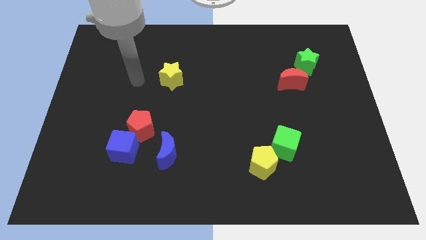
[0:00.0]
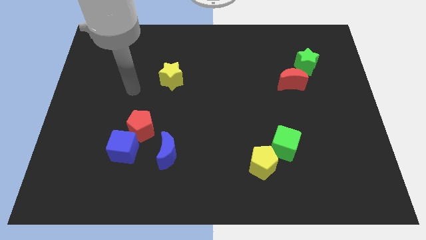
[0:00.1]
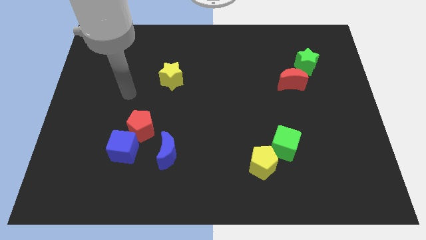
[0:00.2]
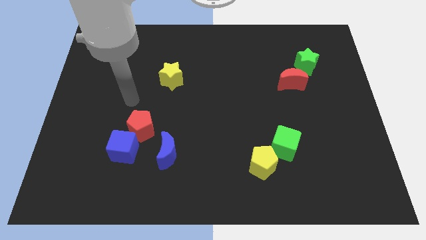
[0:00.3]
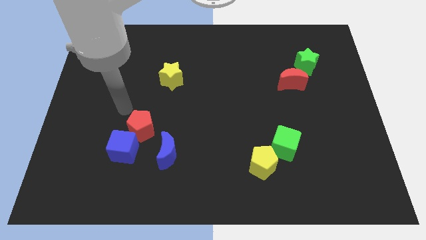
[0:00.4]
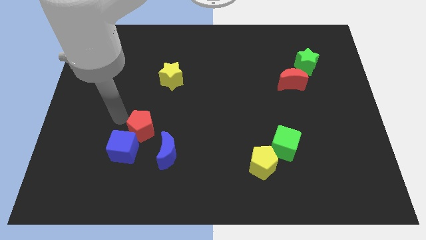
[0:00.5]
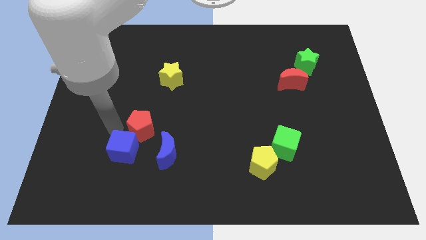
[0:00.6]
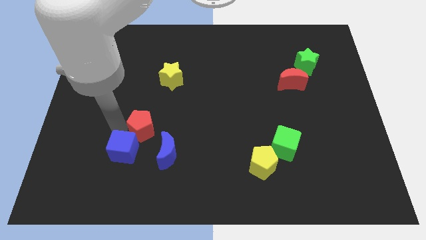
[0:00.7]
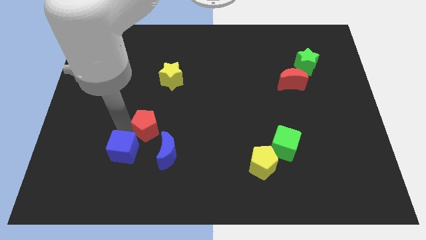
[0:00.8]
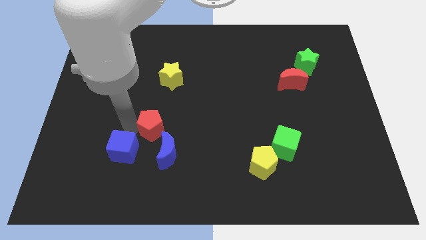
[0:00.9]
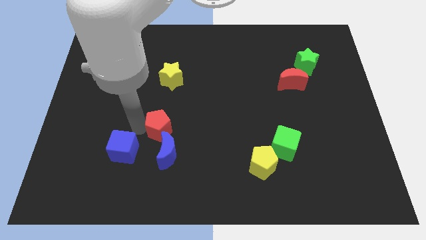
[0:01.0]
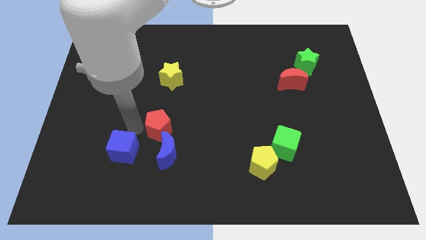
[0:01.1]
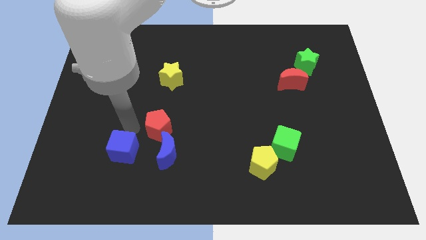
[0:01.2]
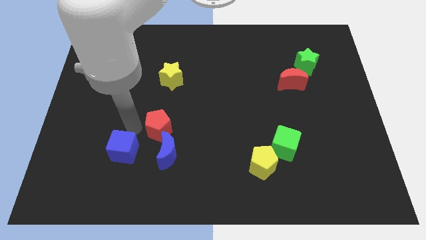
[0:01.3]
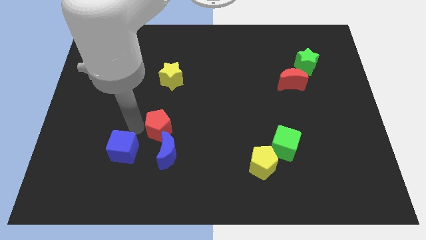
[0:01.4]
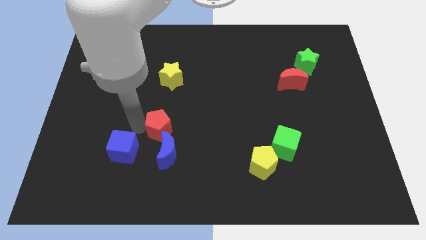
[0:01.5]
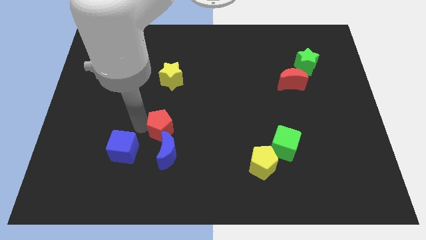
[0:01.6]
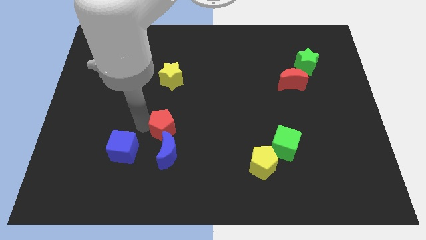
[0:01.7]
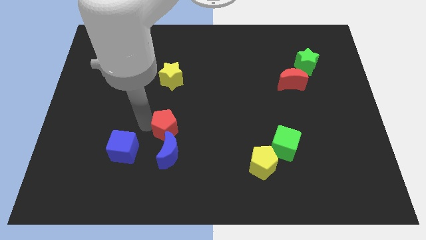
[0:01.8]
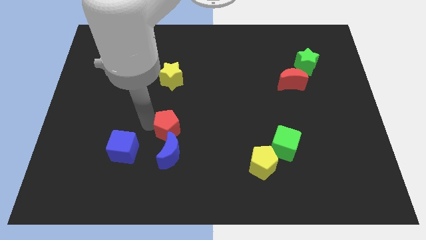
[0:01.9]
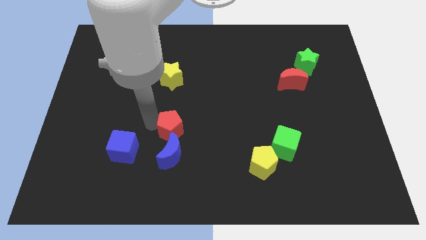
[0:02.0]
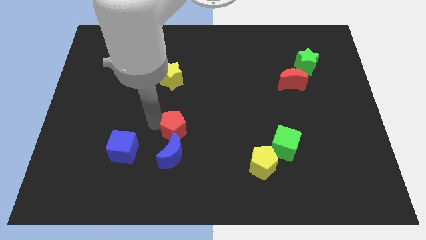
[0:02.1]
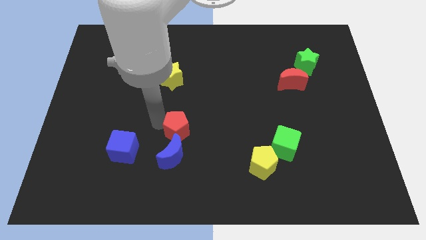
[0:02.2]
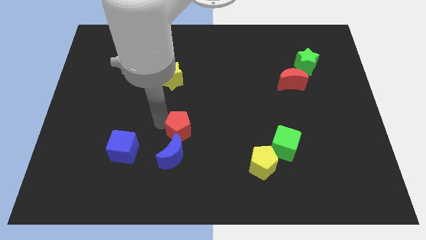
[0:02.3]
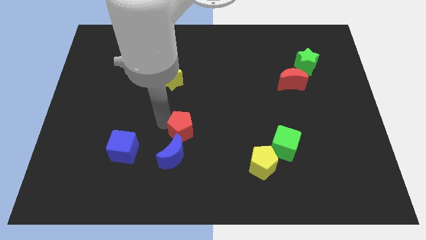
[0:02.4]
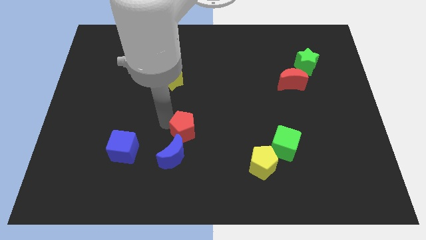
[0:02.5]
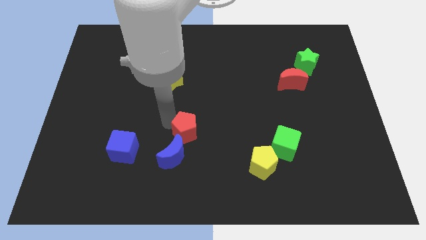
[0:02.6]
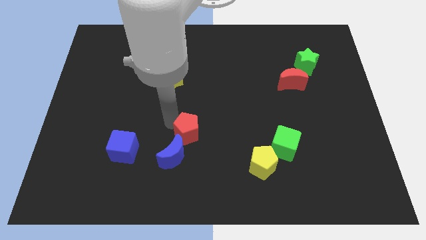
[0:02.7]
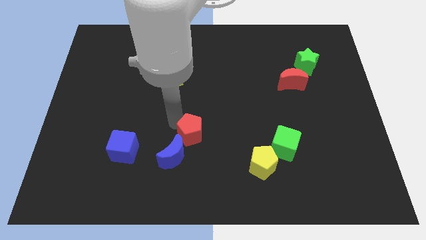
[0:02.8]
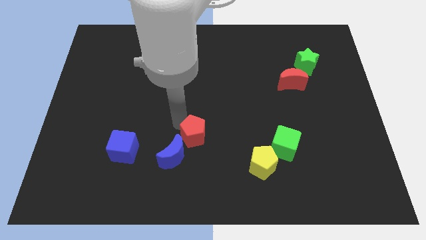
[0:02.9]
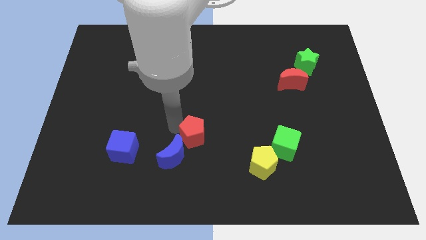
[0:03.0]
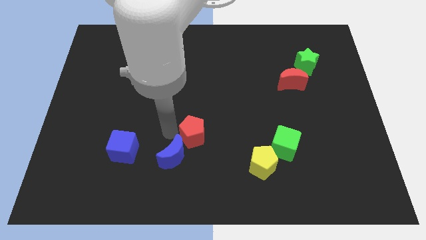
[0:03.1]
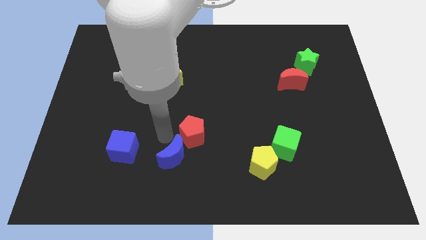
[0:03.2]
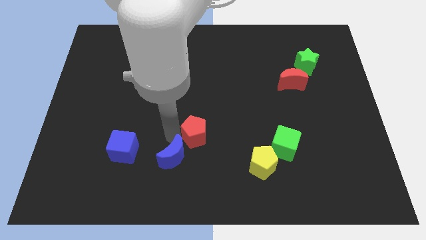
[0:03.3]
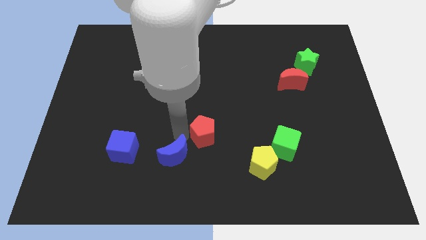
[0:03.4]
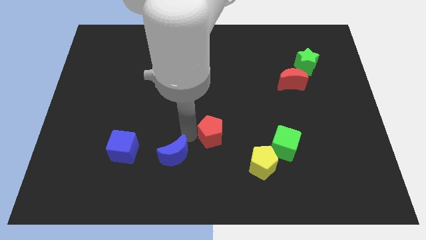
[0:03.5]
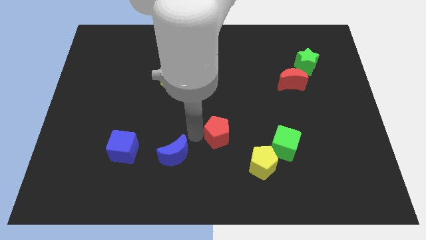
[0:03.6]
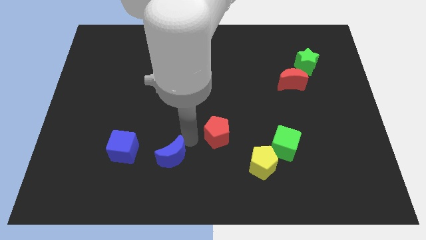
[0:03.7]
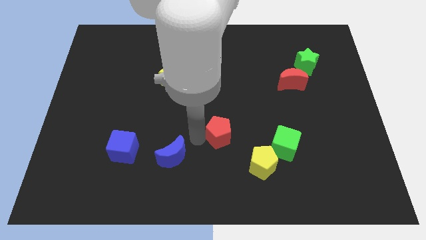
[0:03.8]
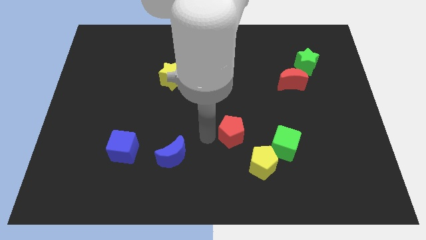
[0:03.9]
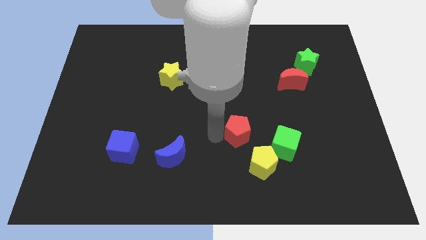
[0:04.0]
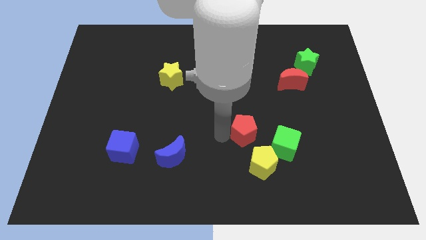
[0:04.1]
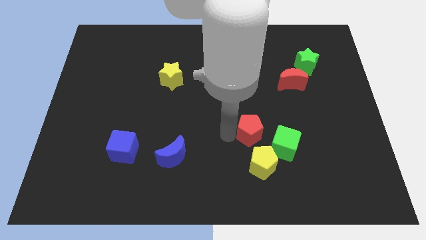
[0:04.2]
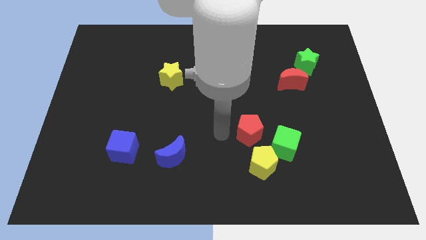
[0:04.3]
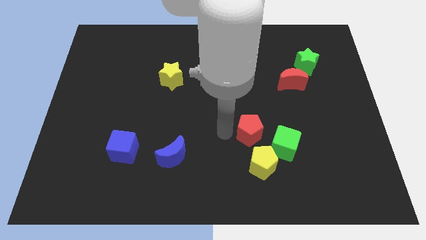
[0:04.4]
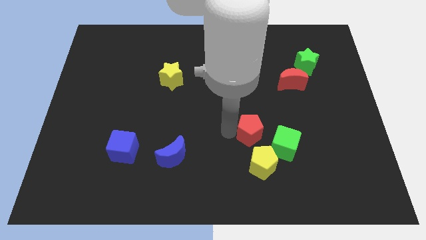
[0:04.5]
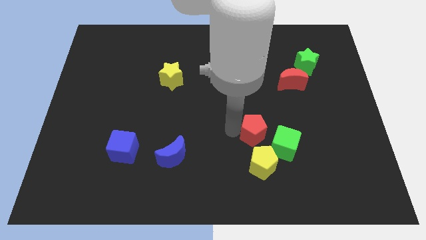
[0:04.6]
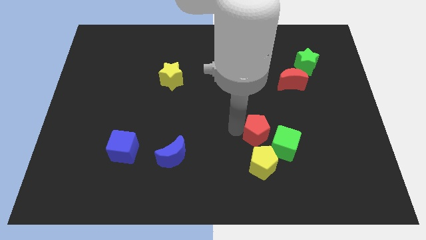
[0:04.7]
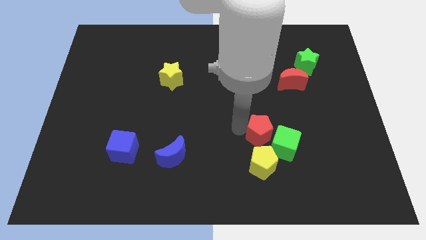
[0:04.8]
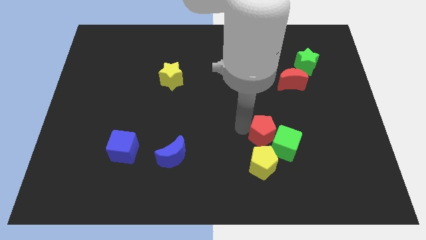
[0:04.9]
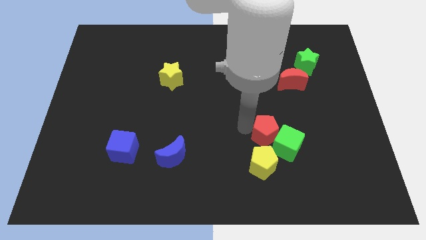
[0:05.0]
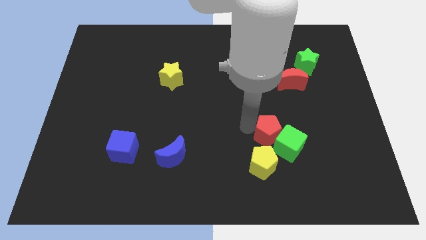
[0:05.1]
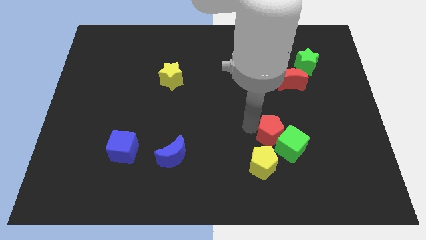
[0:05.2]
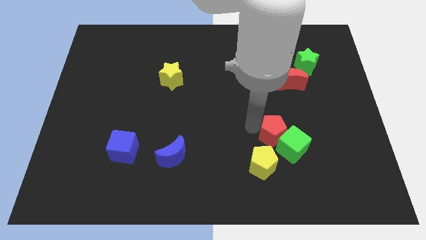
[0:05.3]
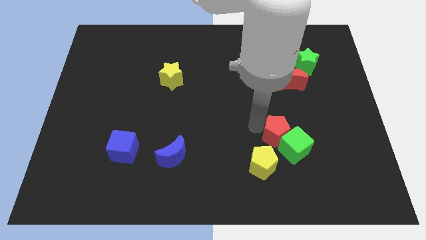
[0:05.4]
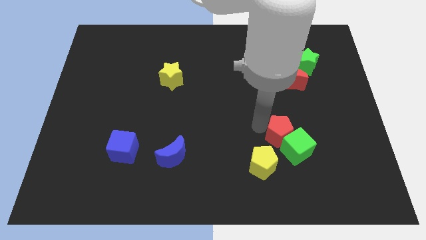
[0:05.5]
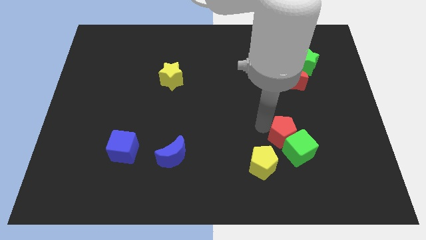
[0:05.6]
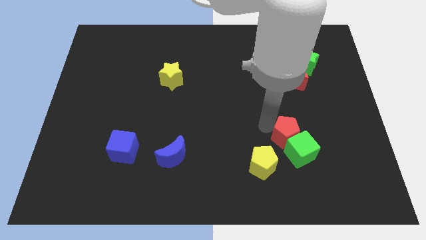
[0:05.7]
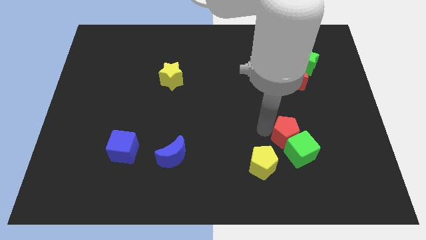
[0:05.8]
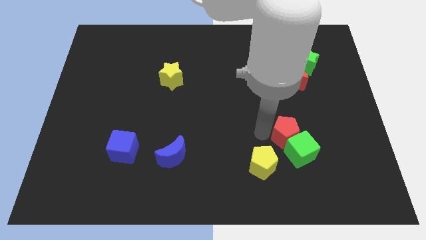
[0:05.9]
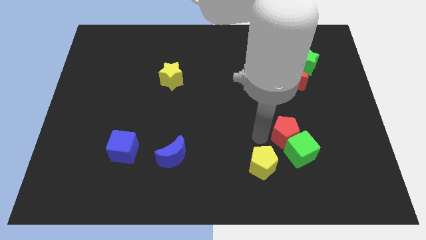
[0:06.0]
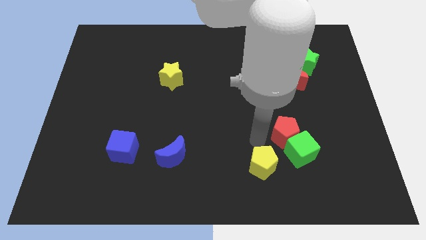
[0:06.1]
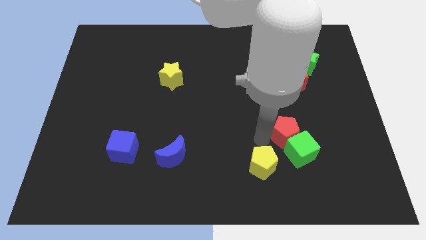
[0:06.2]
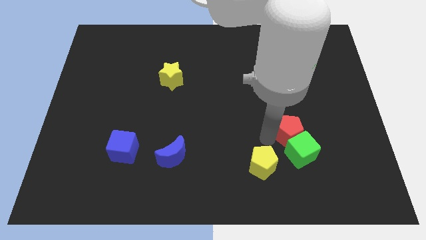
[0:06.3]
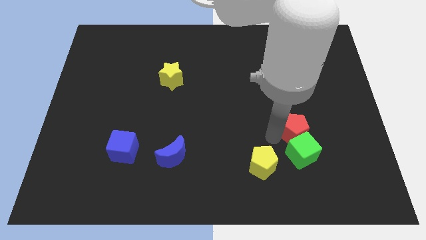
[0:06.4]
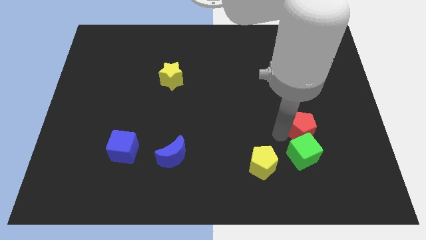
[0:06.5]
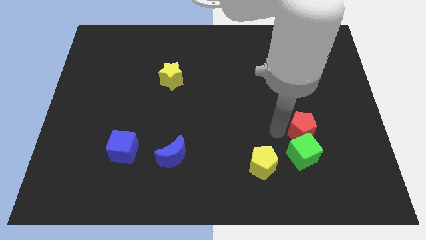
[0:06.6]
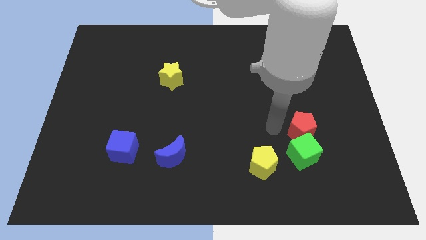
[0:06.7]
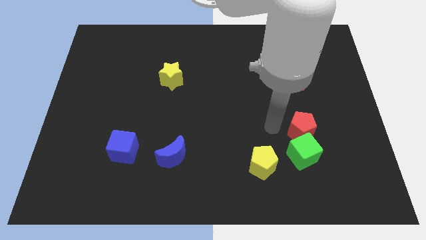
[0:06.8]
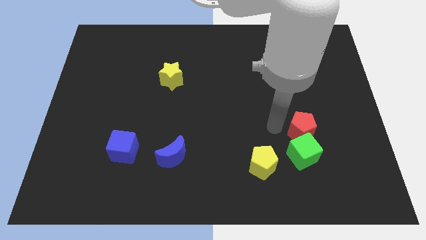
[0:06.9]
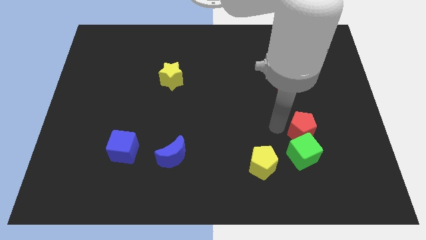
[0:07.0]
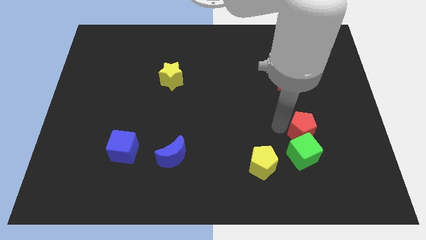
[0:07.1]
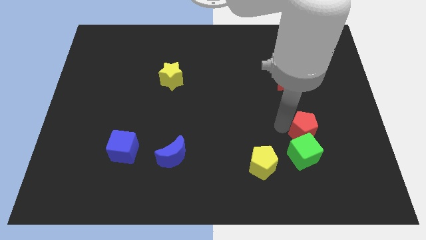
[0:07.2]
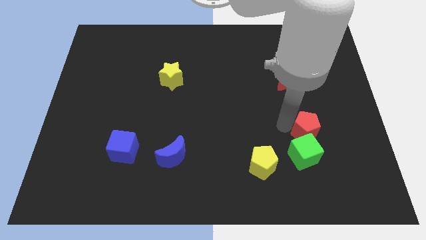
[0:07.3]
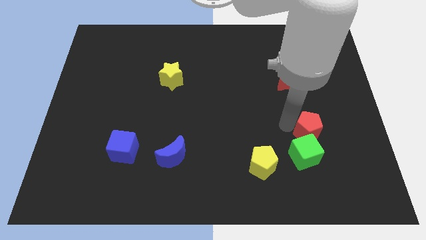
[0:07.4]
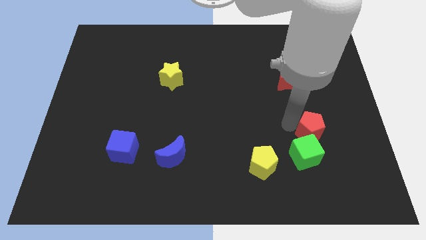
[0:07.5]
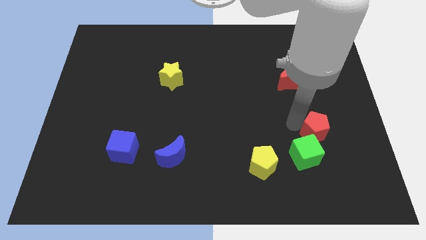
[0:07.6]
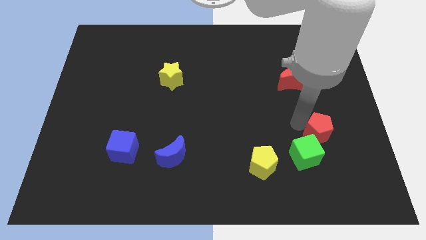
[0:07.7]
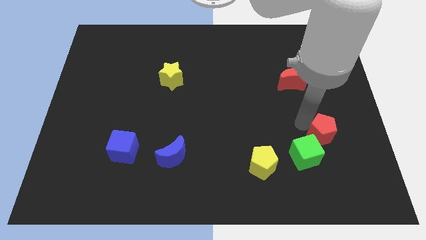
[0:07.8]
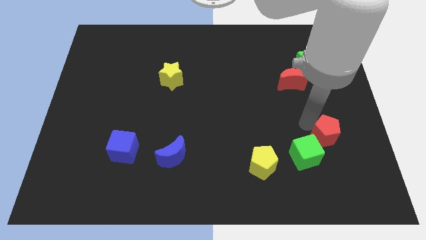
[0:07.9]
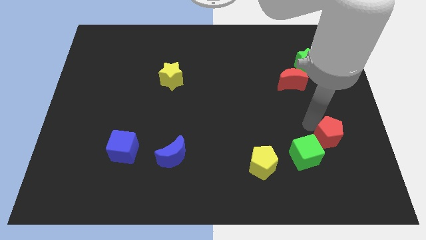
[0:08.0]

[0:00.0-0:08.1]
put the red pentagon just right of the green cube
